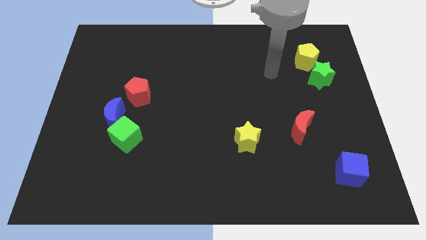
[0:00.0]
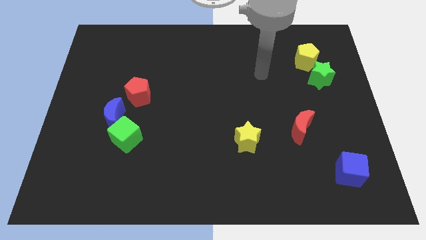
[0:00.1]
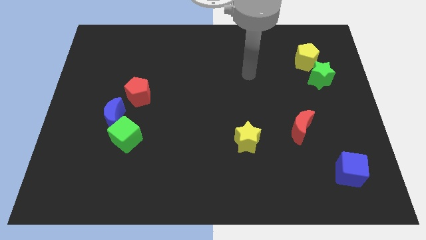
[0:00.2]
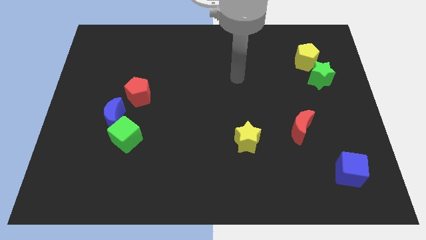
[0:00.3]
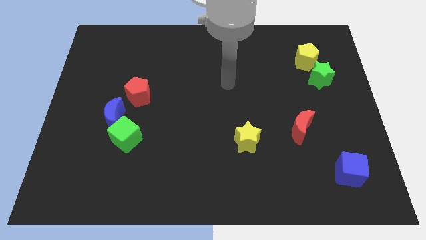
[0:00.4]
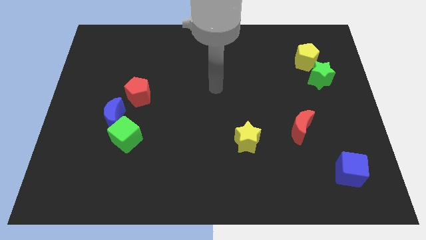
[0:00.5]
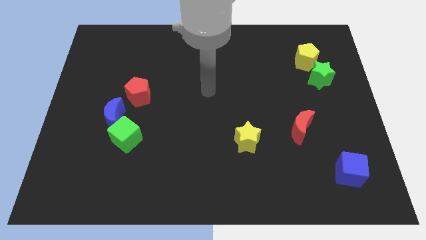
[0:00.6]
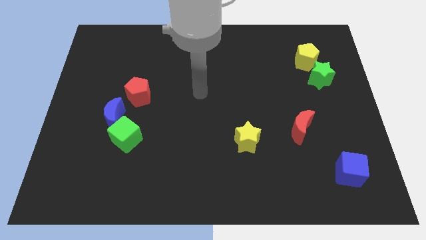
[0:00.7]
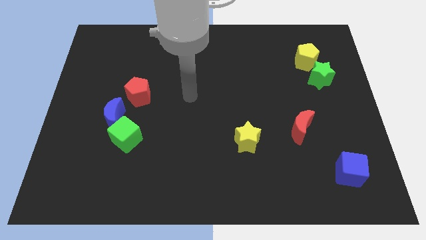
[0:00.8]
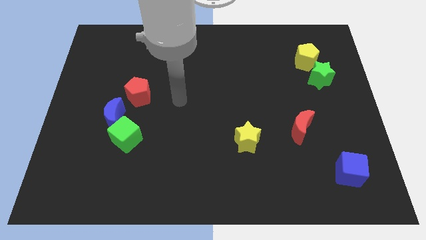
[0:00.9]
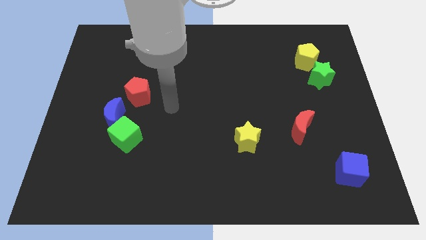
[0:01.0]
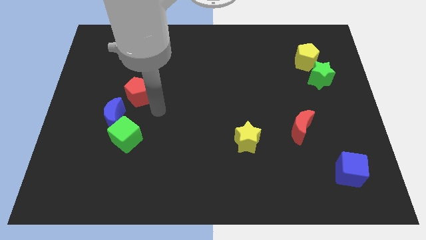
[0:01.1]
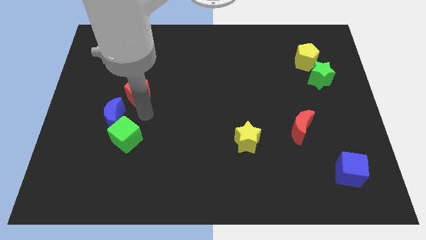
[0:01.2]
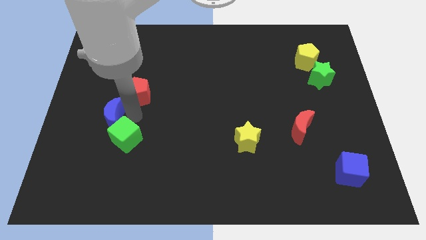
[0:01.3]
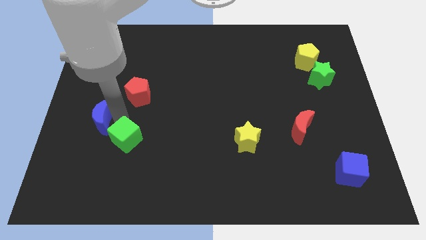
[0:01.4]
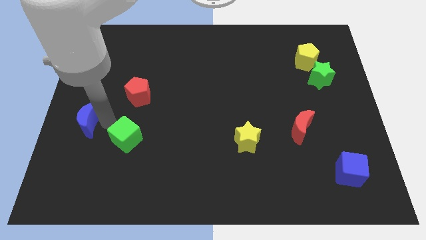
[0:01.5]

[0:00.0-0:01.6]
move the green cube away from the blue moon

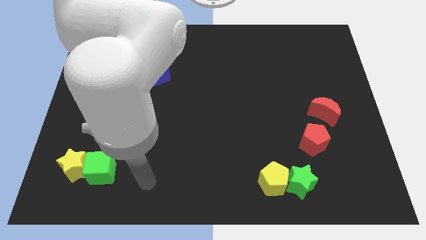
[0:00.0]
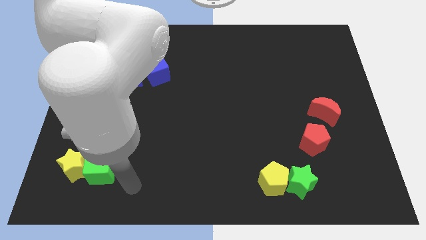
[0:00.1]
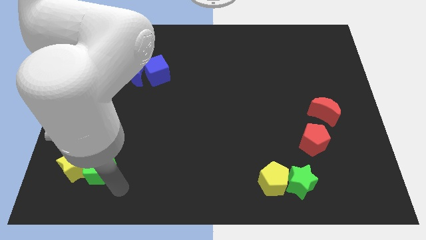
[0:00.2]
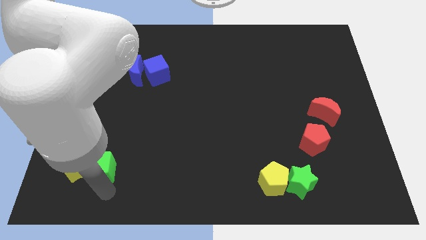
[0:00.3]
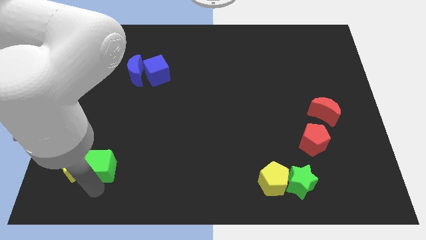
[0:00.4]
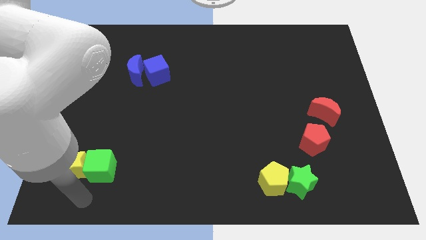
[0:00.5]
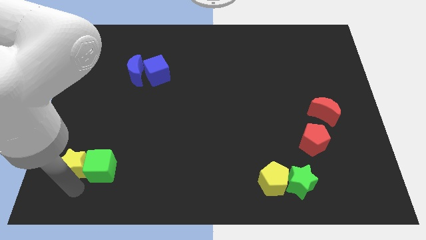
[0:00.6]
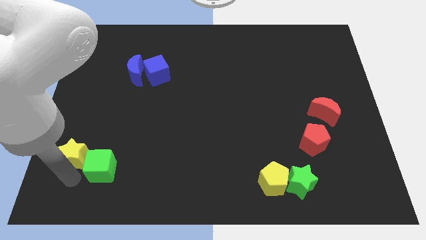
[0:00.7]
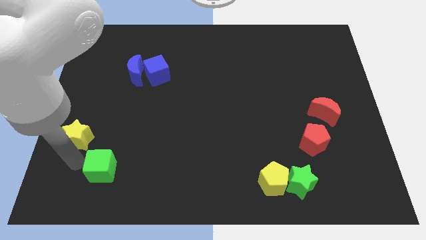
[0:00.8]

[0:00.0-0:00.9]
move the green cube away from the yellow star

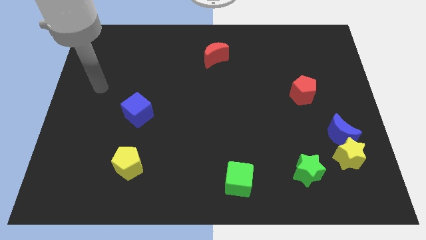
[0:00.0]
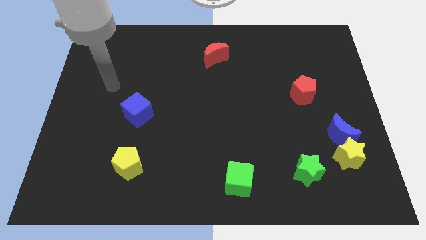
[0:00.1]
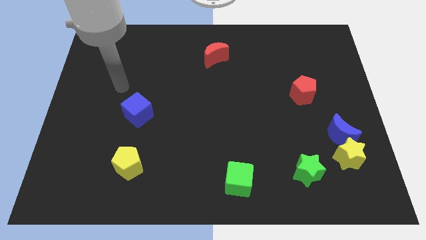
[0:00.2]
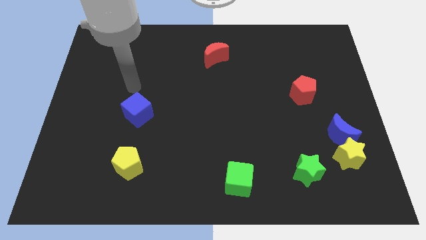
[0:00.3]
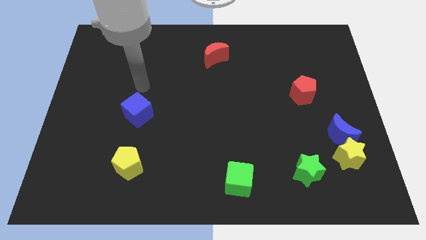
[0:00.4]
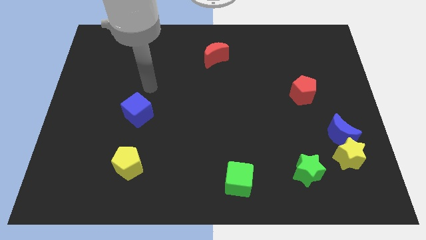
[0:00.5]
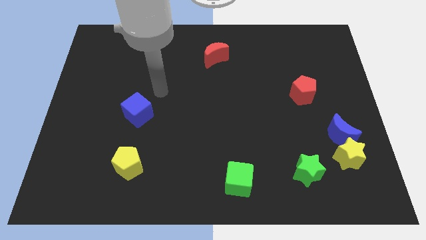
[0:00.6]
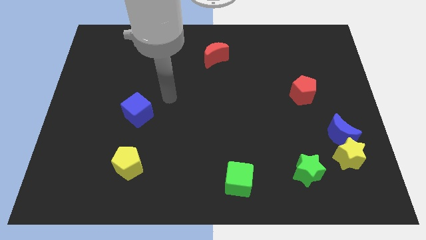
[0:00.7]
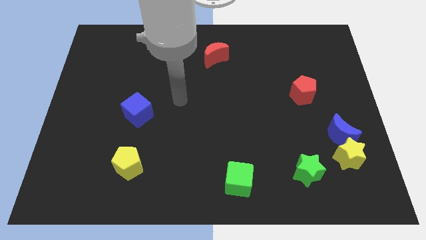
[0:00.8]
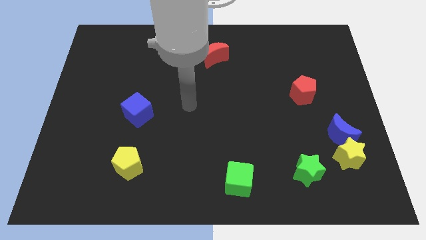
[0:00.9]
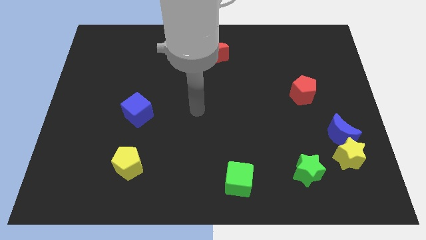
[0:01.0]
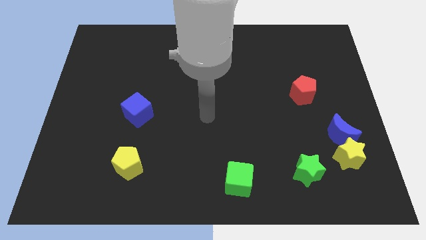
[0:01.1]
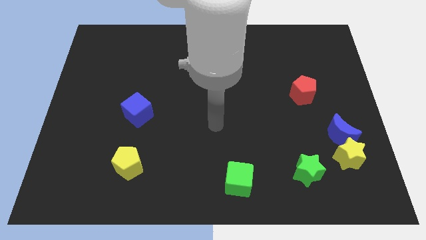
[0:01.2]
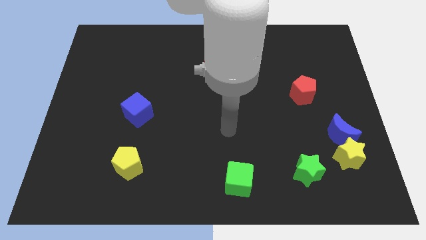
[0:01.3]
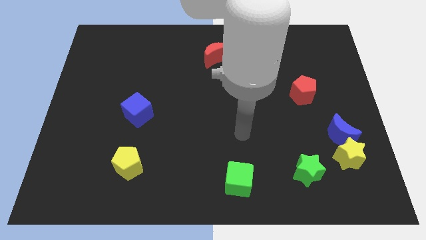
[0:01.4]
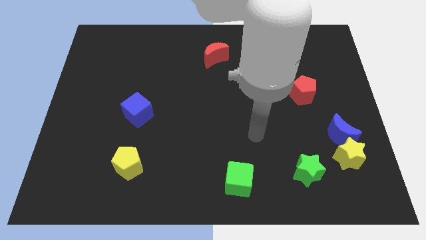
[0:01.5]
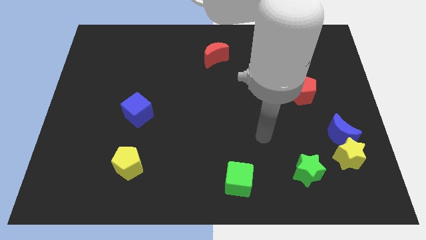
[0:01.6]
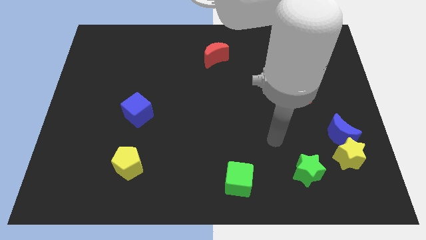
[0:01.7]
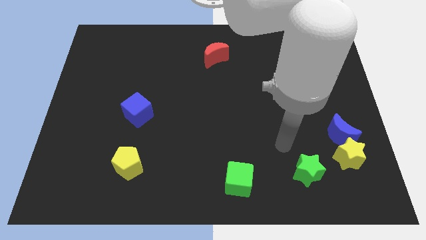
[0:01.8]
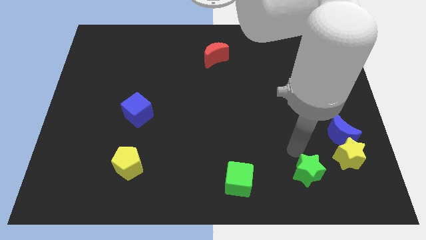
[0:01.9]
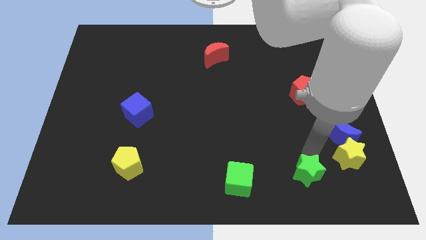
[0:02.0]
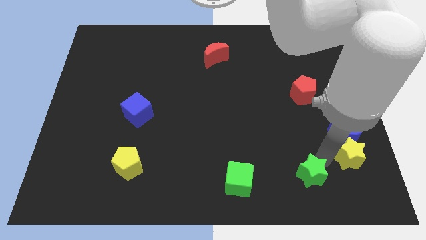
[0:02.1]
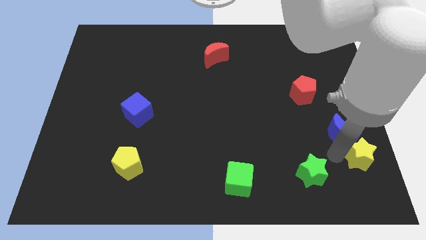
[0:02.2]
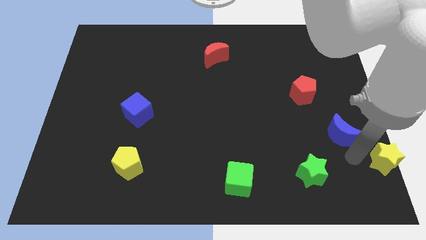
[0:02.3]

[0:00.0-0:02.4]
move the blue moon away from the yellow star

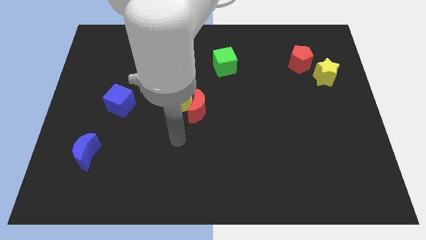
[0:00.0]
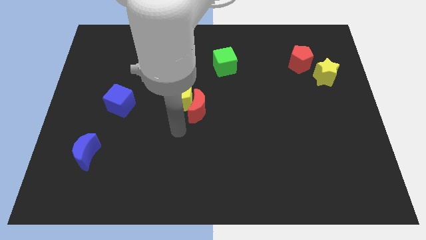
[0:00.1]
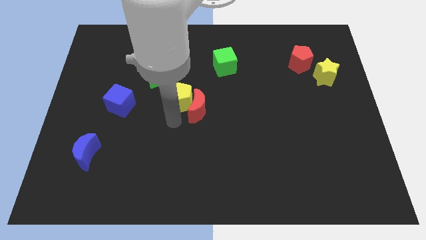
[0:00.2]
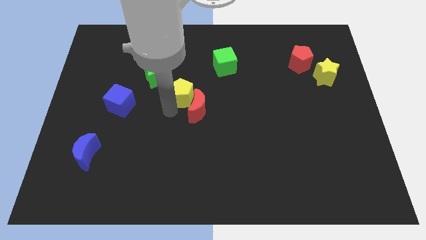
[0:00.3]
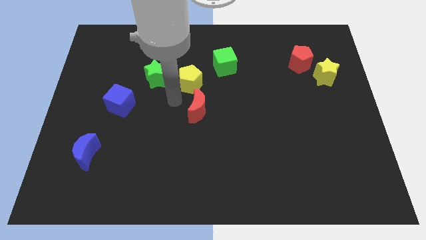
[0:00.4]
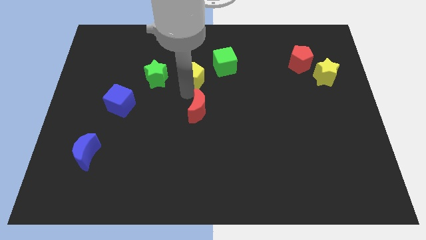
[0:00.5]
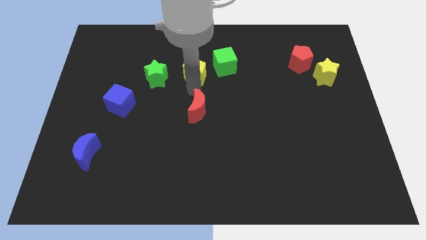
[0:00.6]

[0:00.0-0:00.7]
separate the red moon from the yellow pentagon

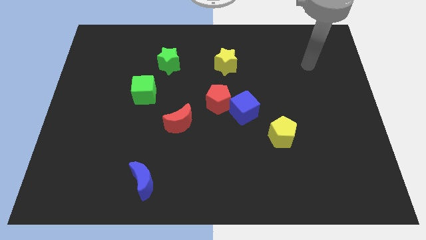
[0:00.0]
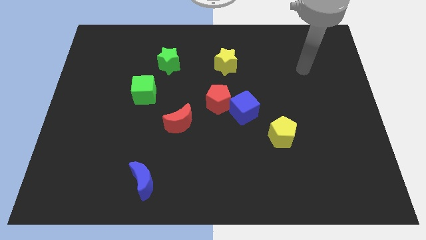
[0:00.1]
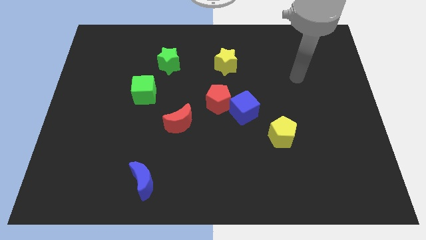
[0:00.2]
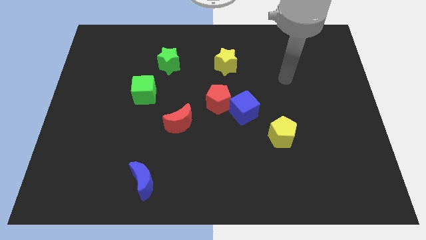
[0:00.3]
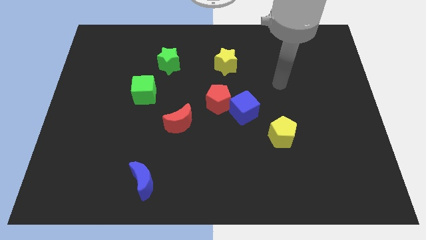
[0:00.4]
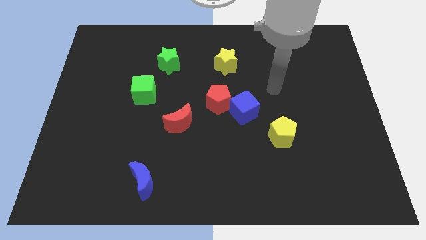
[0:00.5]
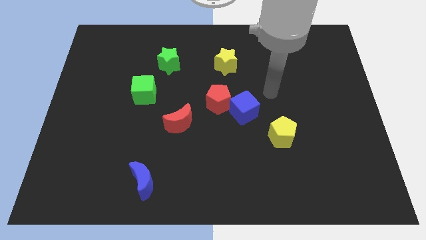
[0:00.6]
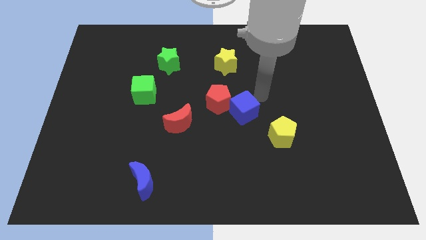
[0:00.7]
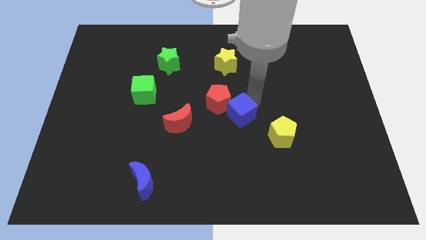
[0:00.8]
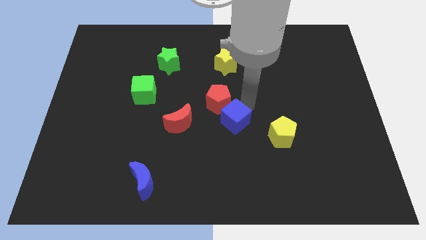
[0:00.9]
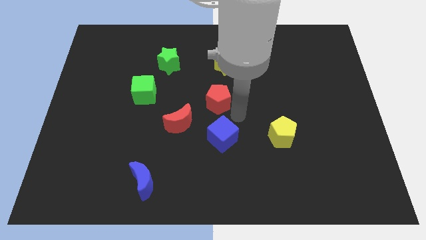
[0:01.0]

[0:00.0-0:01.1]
separate the red pentagon from the blue cube

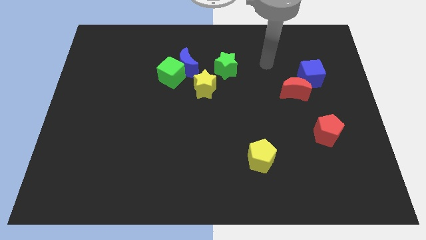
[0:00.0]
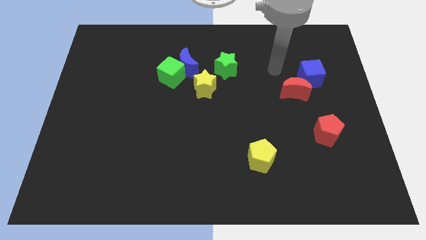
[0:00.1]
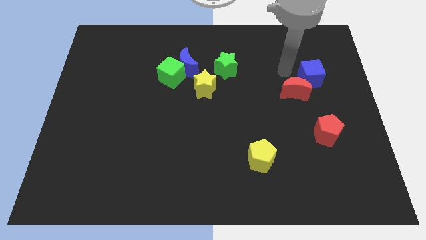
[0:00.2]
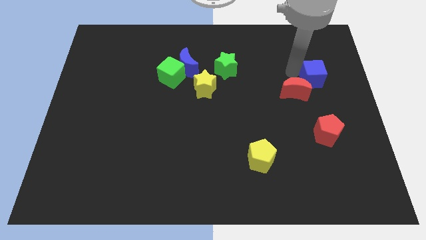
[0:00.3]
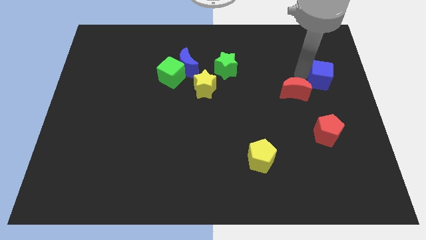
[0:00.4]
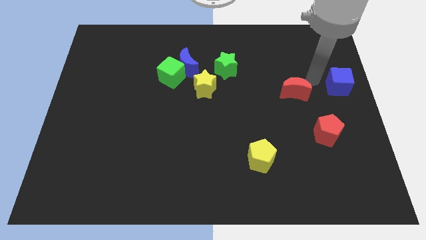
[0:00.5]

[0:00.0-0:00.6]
pull the red moon apart from the blue cube

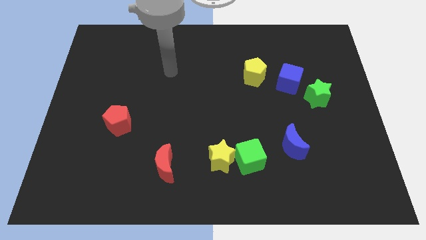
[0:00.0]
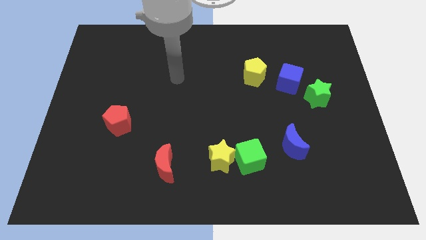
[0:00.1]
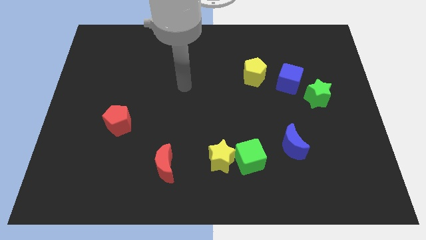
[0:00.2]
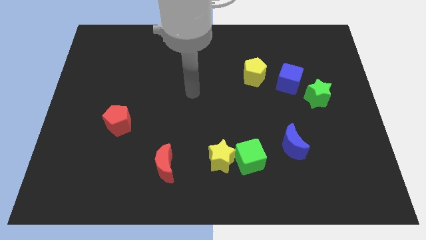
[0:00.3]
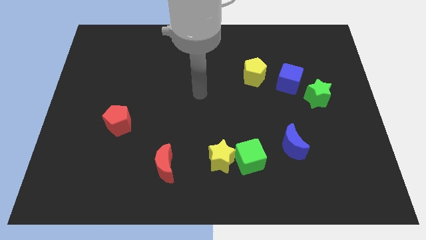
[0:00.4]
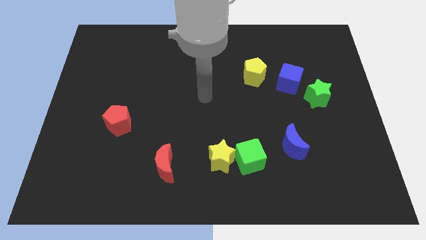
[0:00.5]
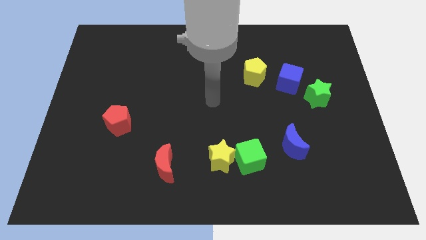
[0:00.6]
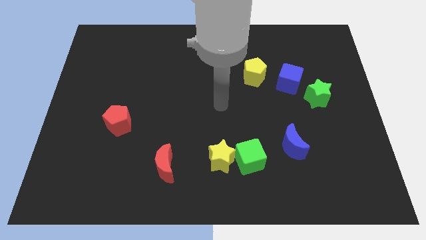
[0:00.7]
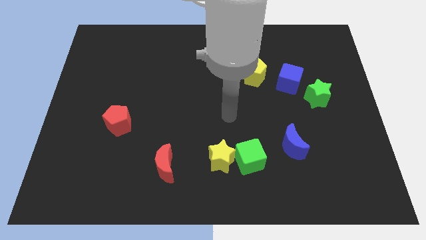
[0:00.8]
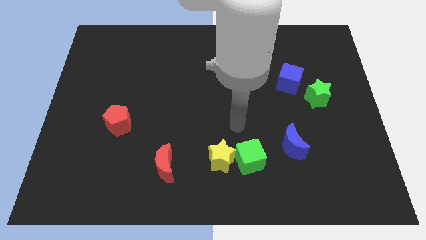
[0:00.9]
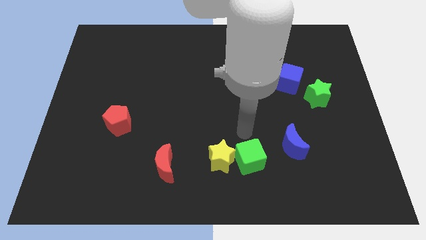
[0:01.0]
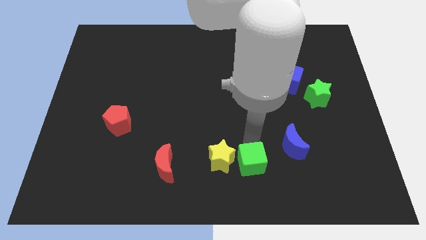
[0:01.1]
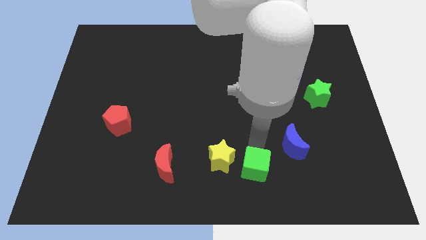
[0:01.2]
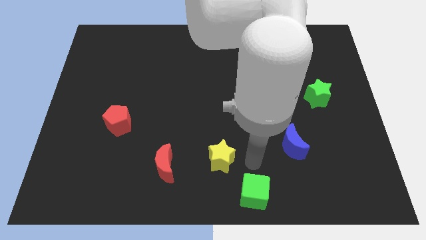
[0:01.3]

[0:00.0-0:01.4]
move the yellow star away from the green cube

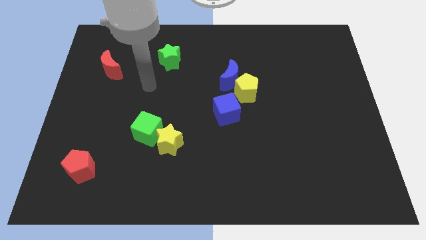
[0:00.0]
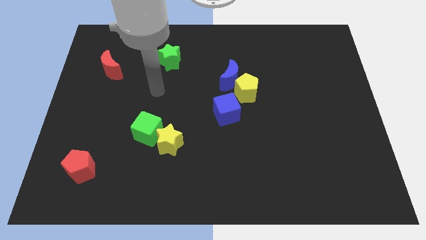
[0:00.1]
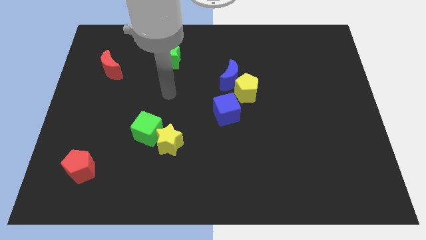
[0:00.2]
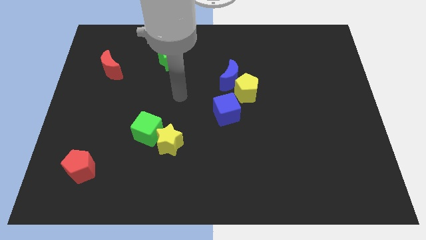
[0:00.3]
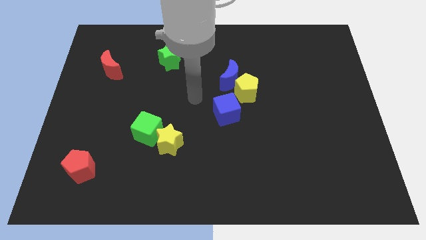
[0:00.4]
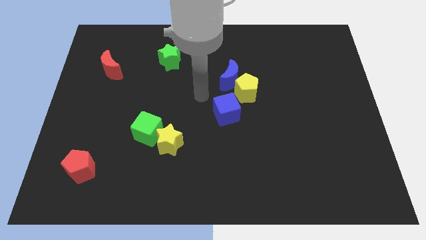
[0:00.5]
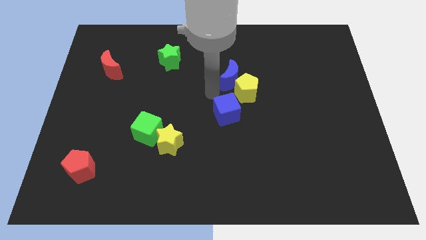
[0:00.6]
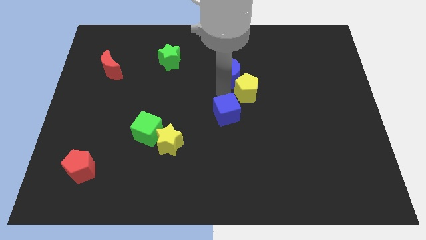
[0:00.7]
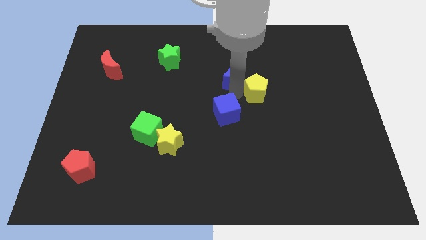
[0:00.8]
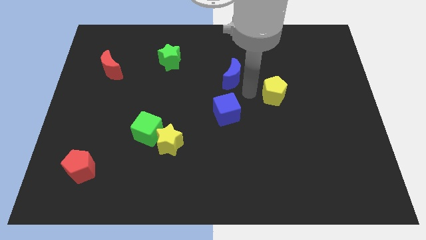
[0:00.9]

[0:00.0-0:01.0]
separate the blue moon from the yellow pentagon
